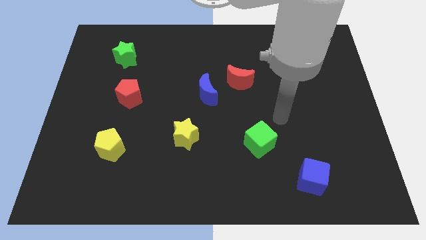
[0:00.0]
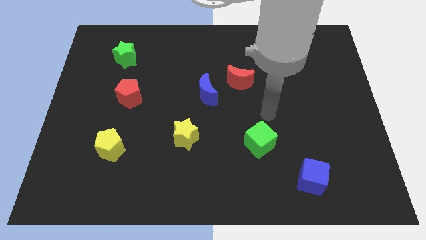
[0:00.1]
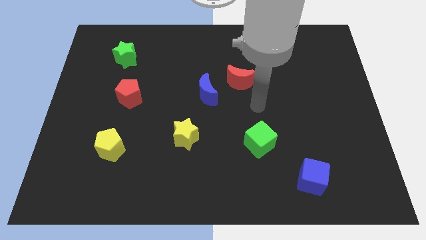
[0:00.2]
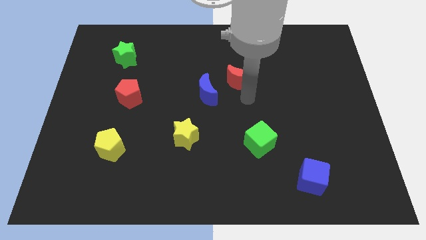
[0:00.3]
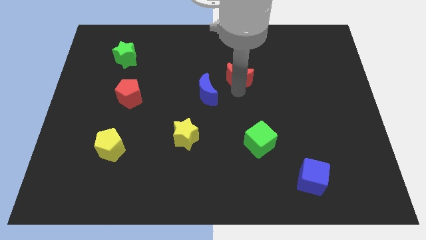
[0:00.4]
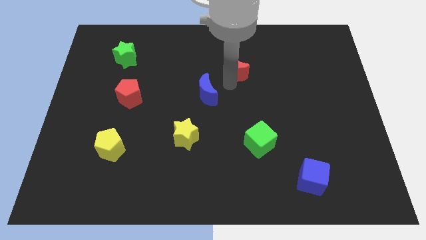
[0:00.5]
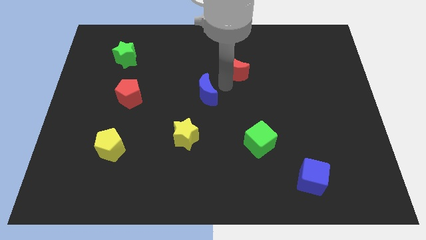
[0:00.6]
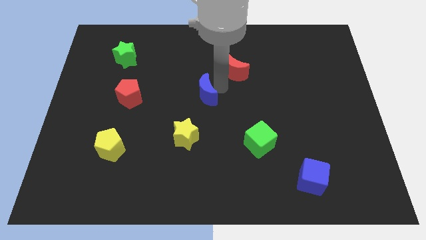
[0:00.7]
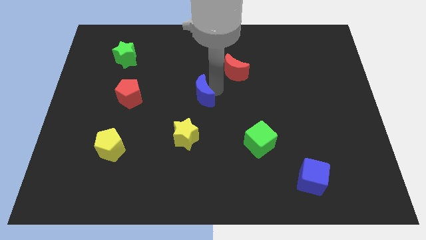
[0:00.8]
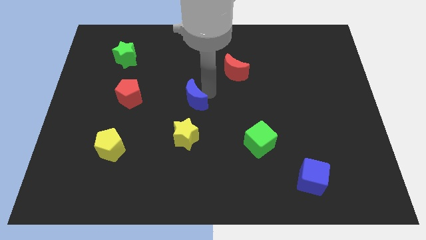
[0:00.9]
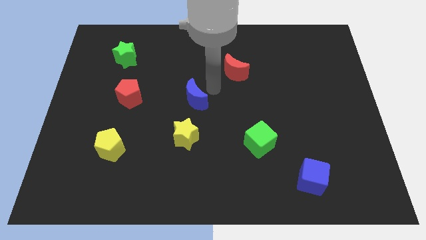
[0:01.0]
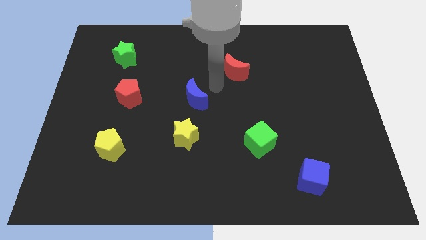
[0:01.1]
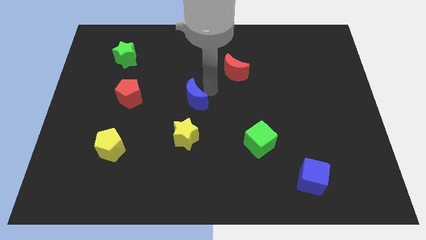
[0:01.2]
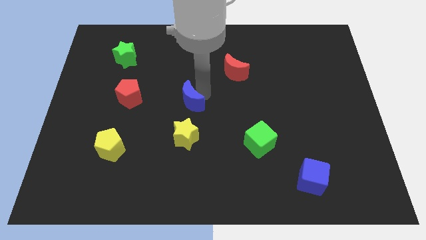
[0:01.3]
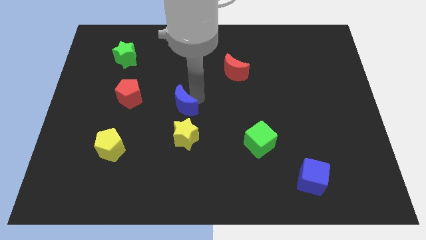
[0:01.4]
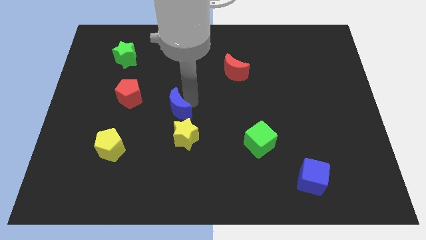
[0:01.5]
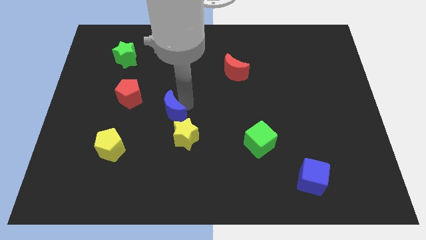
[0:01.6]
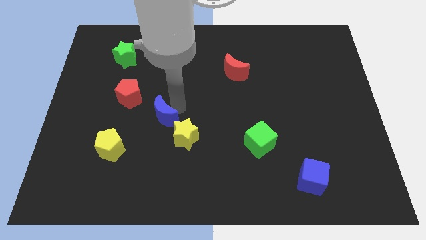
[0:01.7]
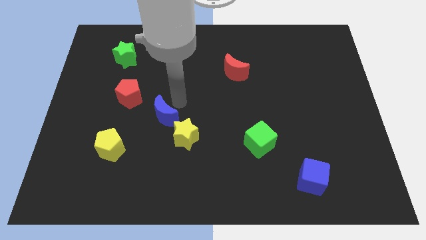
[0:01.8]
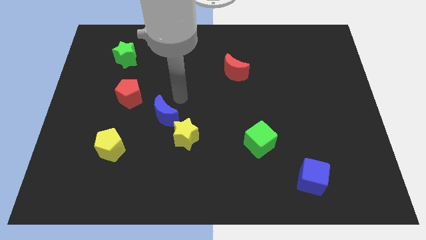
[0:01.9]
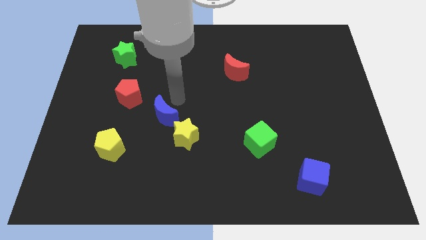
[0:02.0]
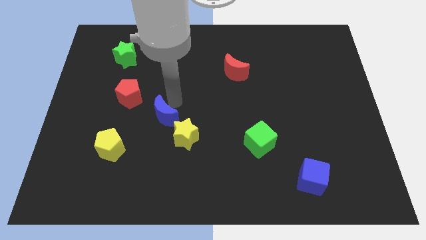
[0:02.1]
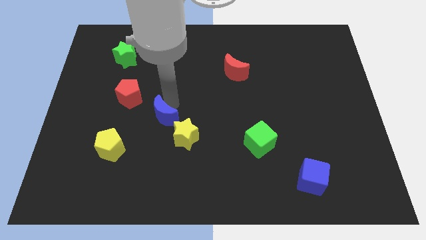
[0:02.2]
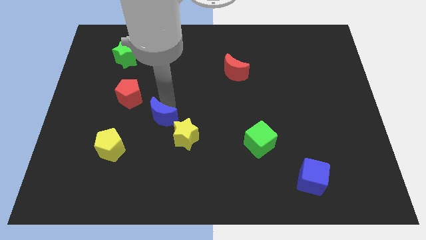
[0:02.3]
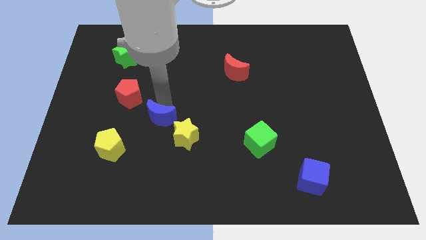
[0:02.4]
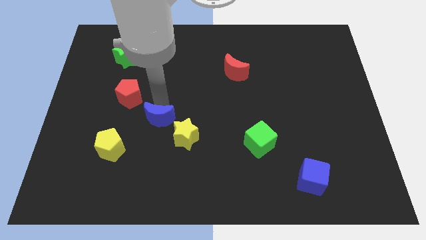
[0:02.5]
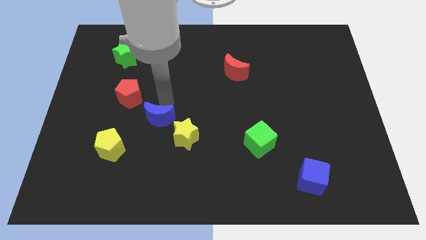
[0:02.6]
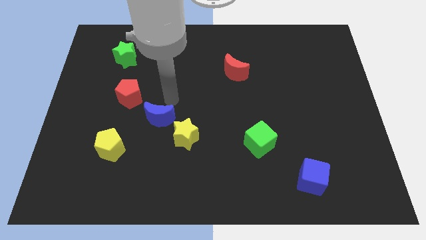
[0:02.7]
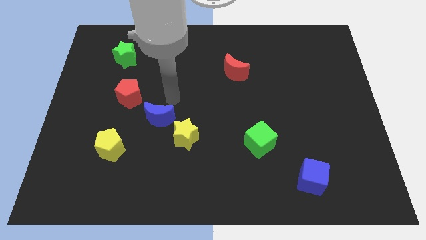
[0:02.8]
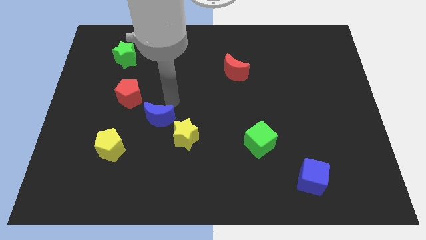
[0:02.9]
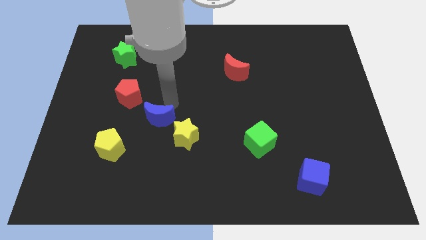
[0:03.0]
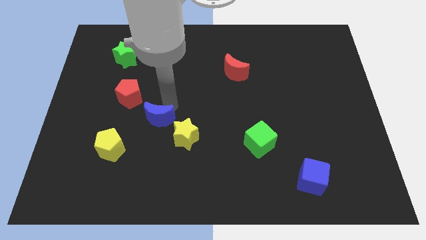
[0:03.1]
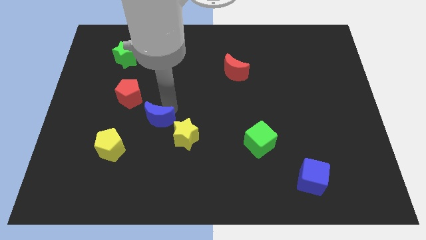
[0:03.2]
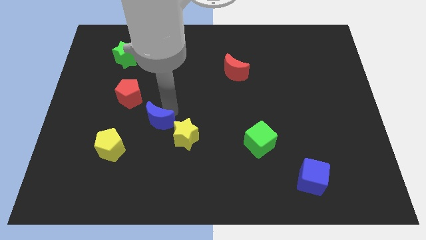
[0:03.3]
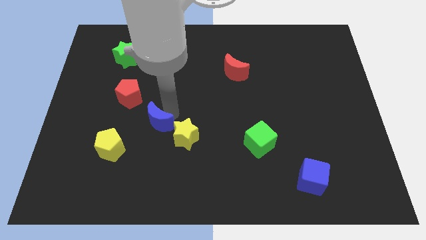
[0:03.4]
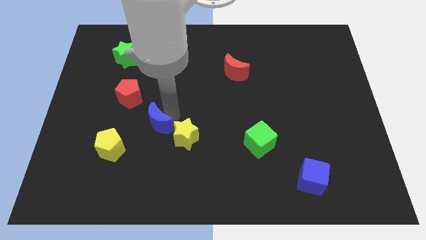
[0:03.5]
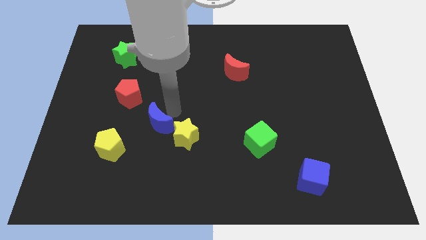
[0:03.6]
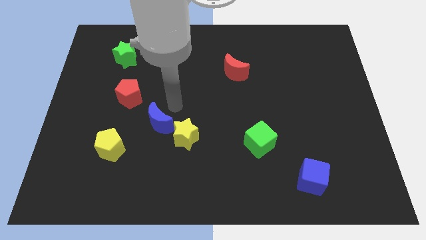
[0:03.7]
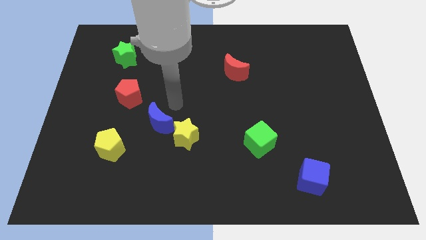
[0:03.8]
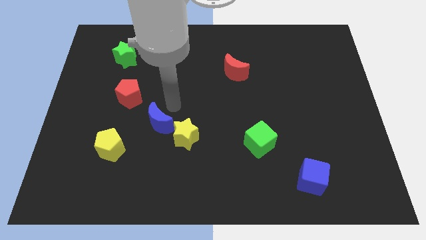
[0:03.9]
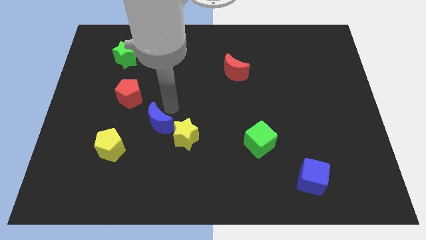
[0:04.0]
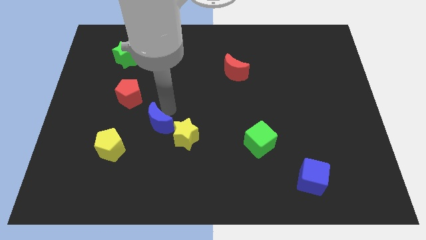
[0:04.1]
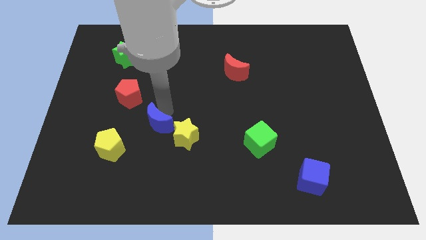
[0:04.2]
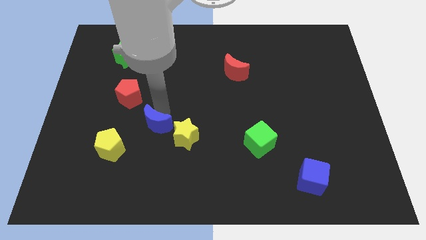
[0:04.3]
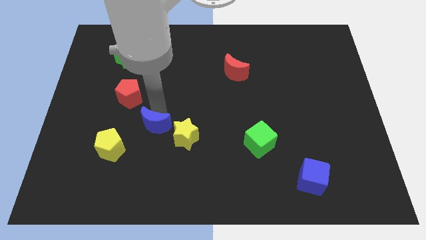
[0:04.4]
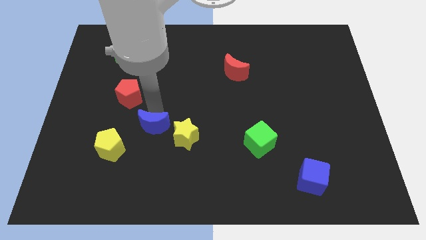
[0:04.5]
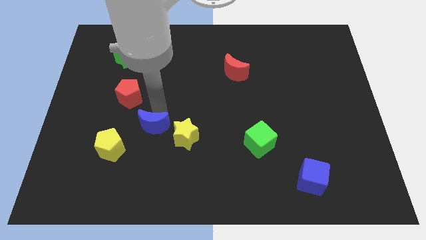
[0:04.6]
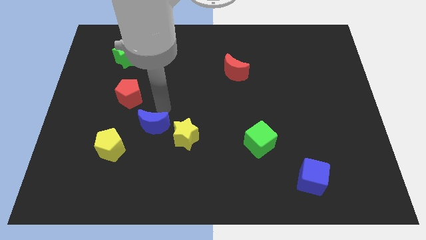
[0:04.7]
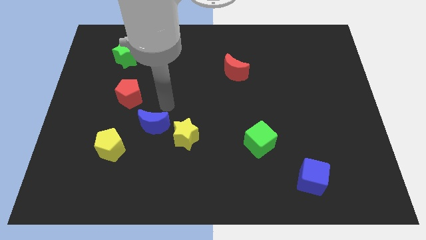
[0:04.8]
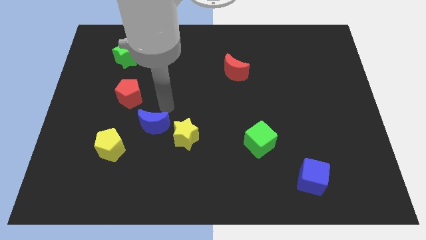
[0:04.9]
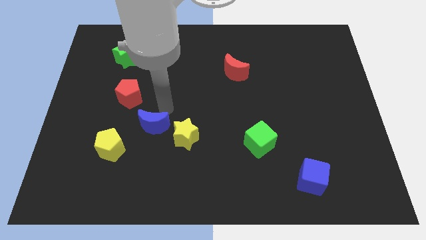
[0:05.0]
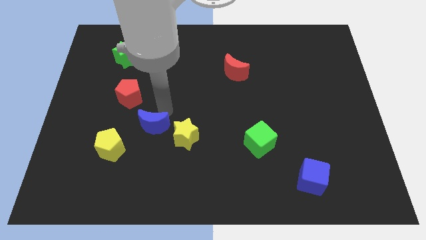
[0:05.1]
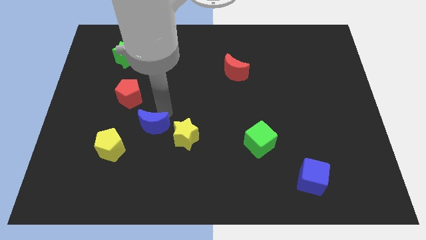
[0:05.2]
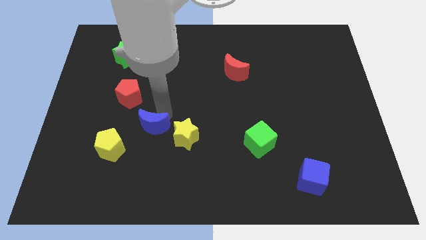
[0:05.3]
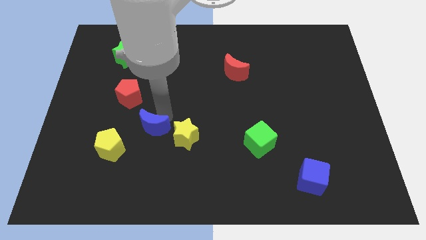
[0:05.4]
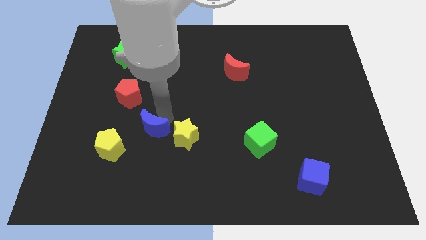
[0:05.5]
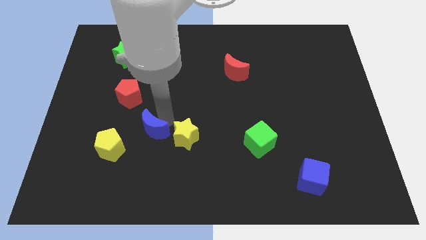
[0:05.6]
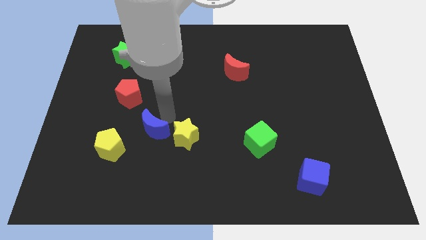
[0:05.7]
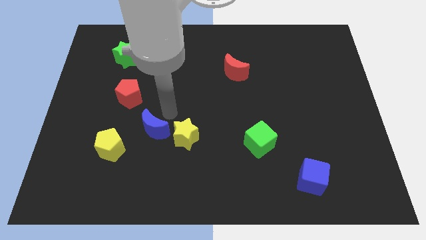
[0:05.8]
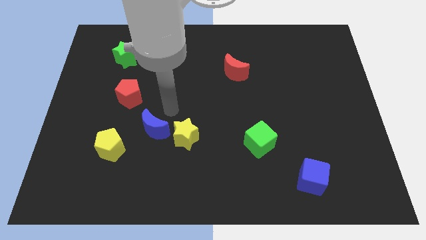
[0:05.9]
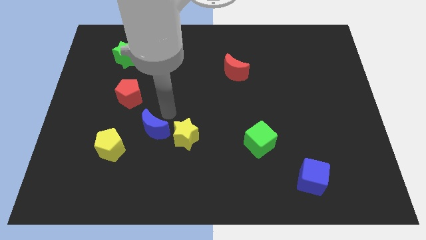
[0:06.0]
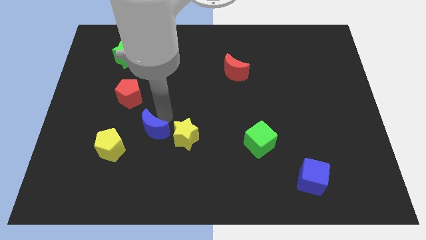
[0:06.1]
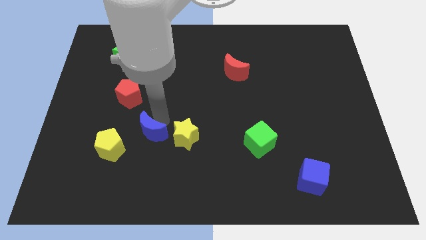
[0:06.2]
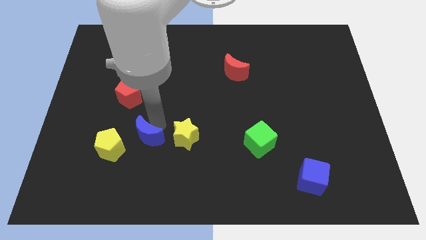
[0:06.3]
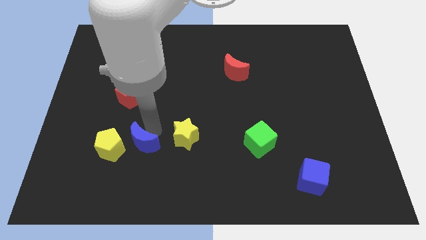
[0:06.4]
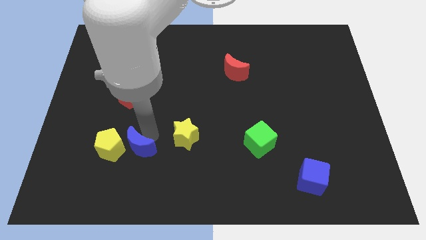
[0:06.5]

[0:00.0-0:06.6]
move the blue moon diagonally down and left

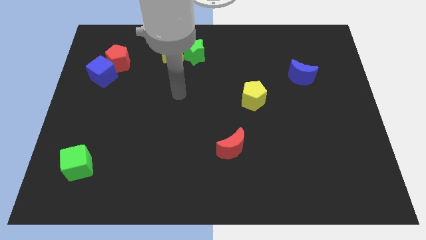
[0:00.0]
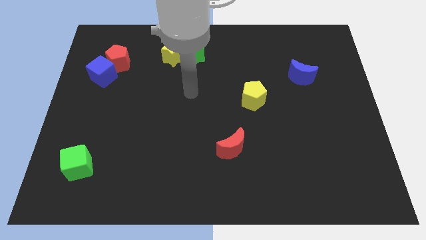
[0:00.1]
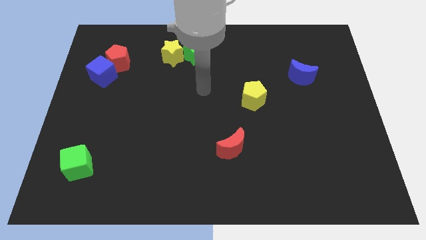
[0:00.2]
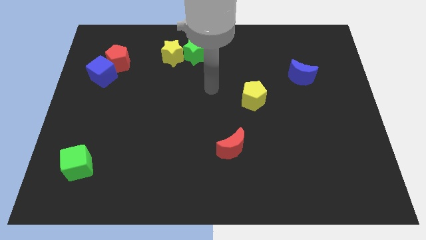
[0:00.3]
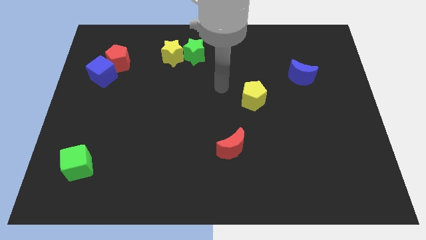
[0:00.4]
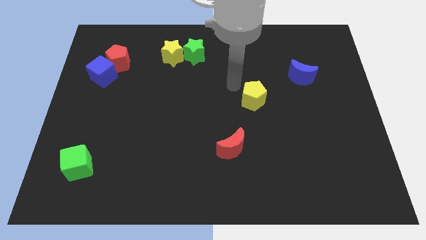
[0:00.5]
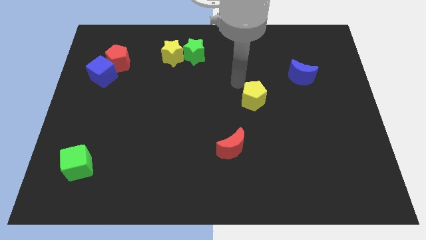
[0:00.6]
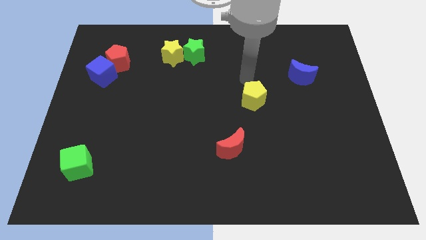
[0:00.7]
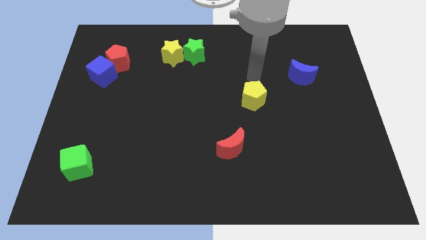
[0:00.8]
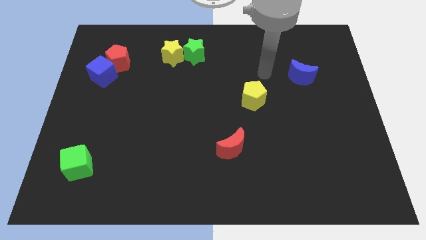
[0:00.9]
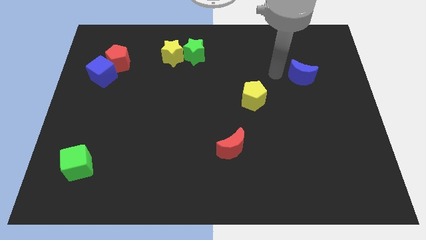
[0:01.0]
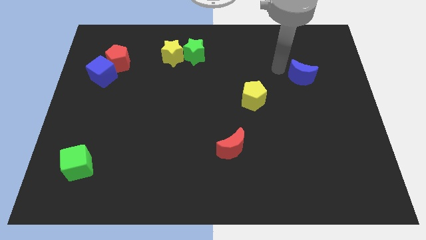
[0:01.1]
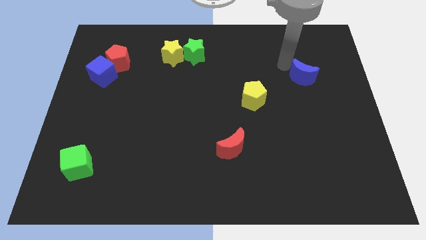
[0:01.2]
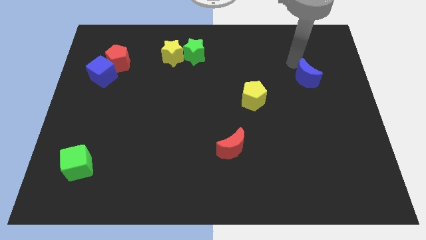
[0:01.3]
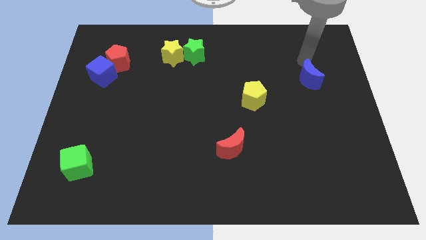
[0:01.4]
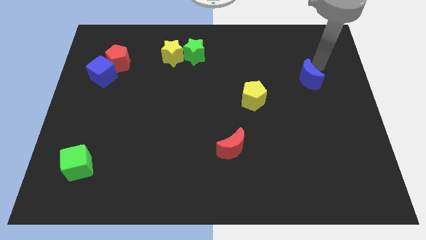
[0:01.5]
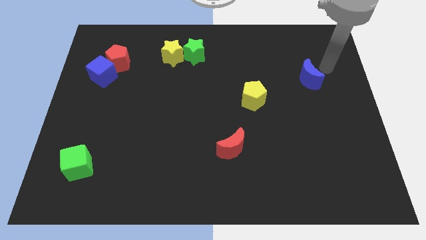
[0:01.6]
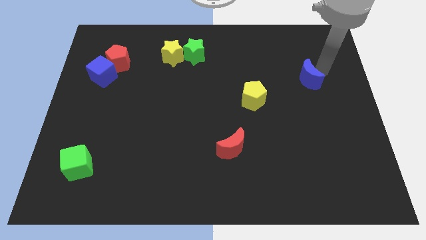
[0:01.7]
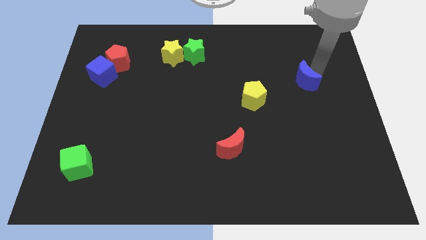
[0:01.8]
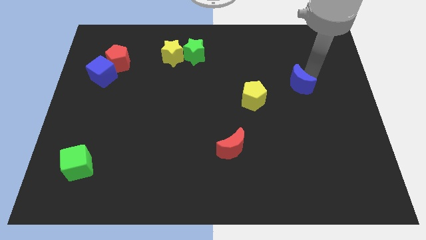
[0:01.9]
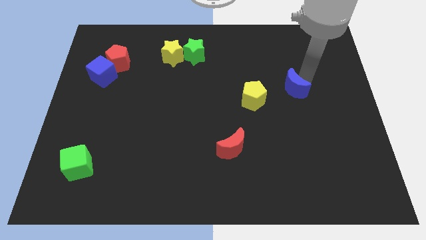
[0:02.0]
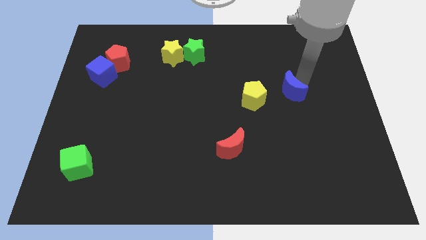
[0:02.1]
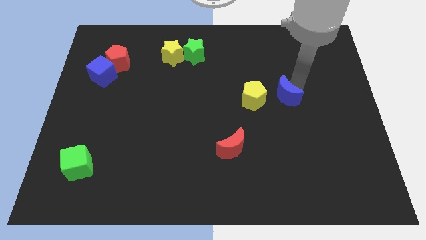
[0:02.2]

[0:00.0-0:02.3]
push the blue moon a little bit down and to the left diagonally
